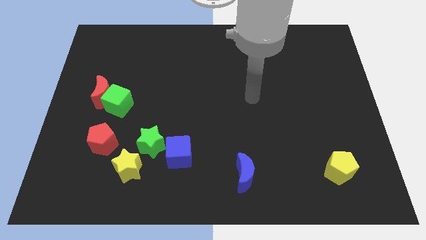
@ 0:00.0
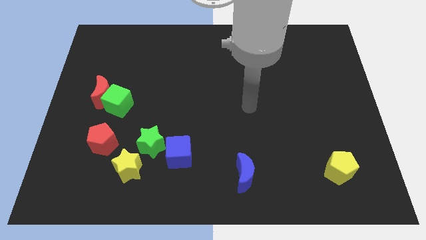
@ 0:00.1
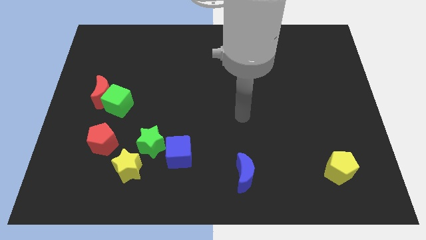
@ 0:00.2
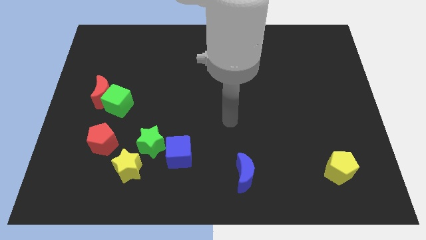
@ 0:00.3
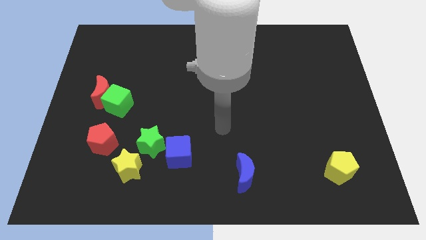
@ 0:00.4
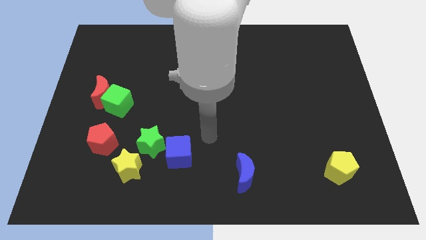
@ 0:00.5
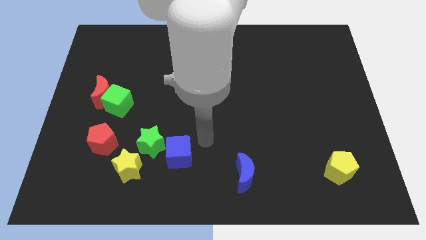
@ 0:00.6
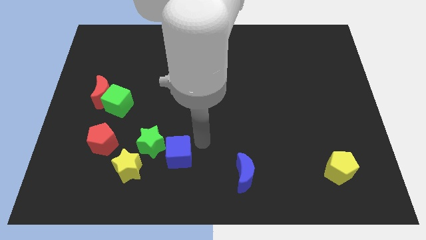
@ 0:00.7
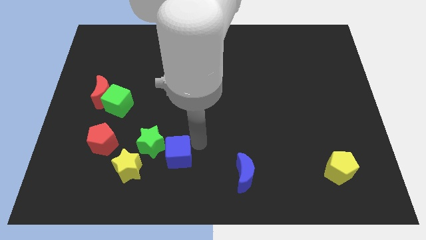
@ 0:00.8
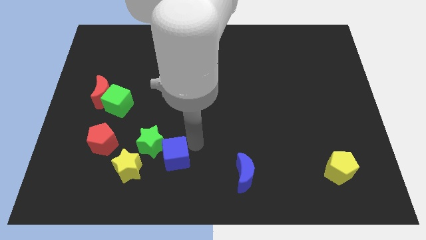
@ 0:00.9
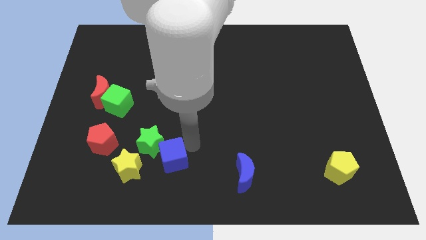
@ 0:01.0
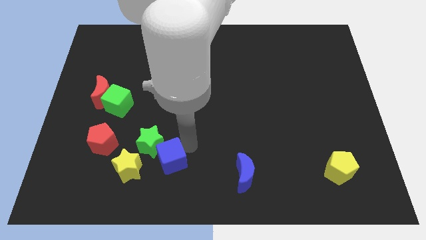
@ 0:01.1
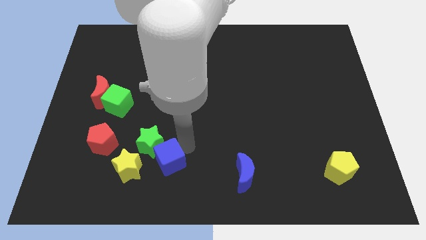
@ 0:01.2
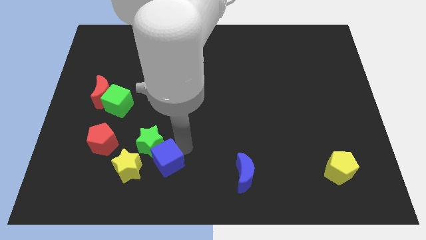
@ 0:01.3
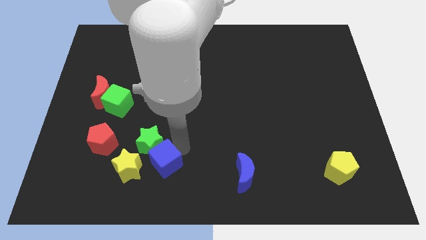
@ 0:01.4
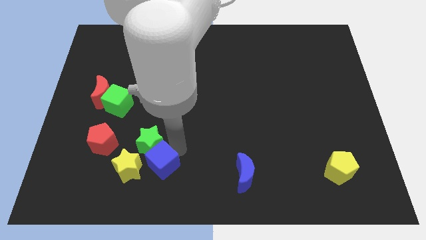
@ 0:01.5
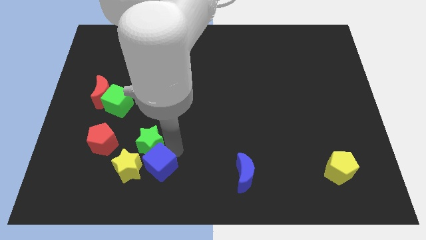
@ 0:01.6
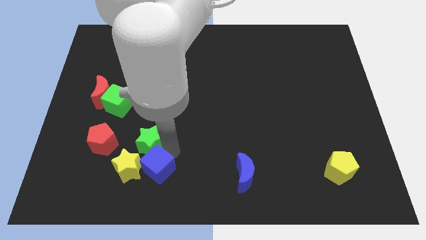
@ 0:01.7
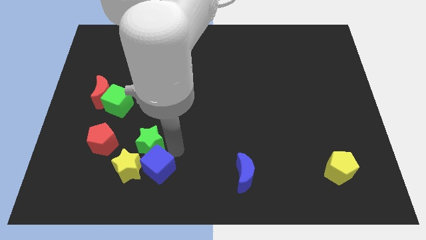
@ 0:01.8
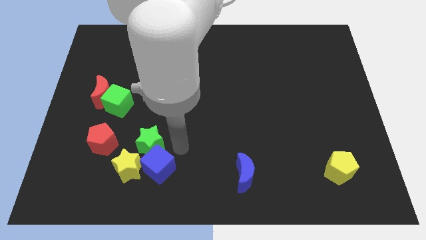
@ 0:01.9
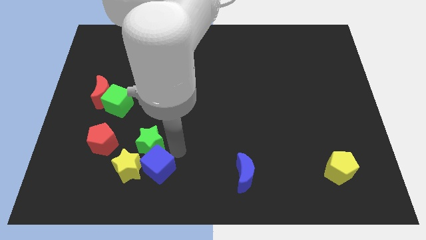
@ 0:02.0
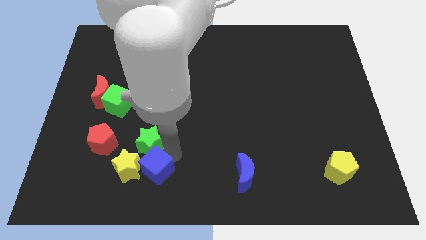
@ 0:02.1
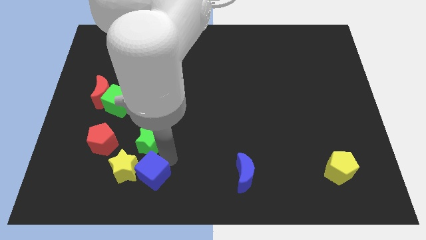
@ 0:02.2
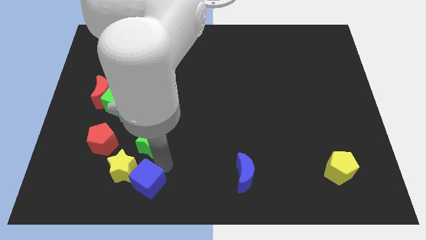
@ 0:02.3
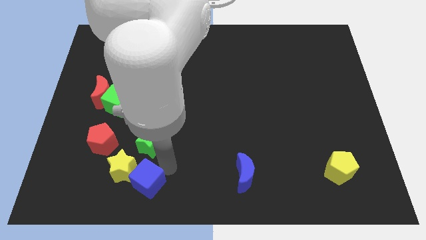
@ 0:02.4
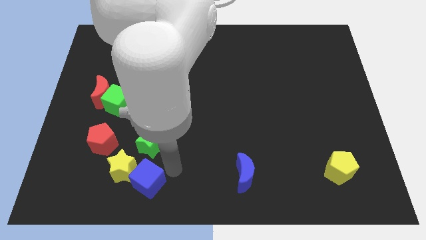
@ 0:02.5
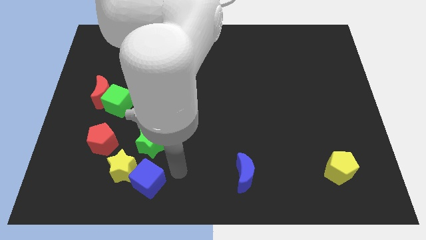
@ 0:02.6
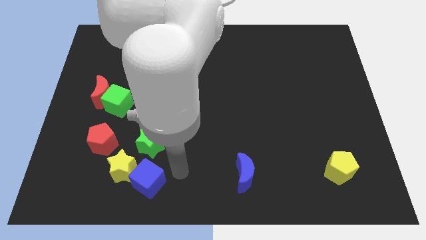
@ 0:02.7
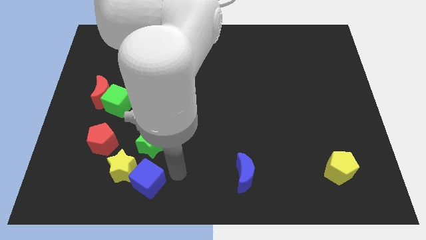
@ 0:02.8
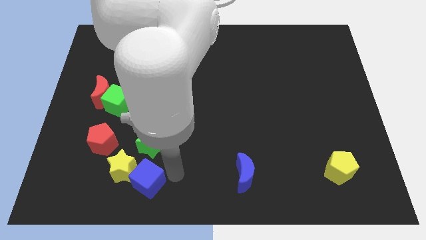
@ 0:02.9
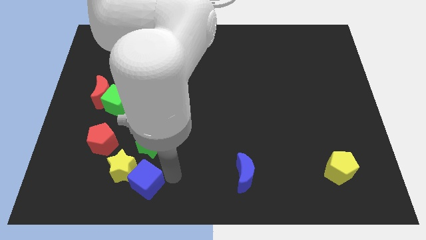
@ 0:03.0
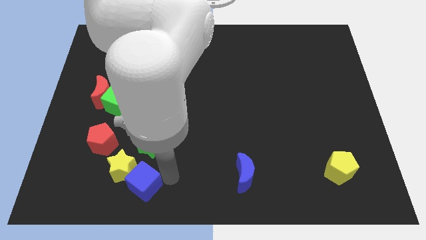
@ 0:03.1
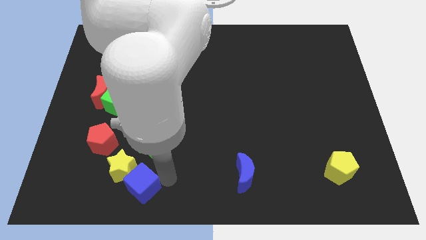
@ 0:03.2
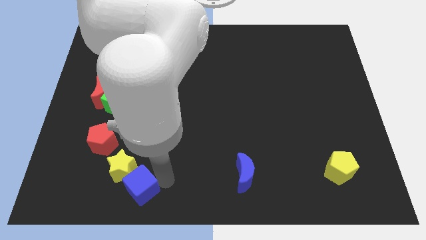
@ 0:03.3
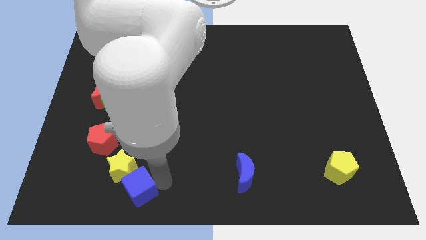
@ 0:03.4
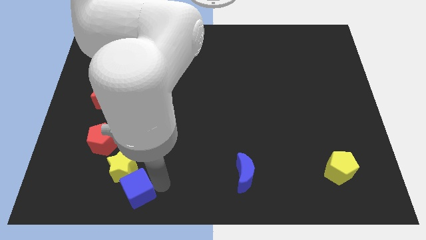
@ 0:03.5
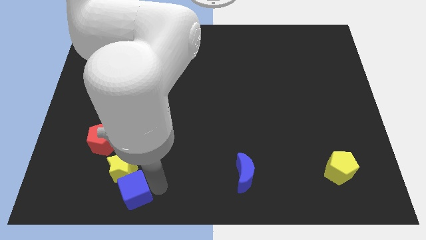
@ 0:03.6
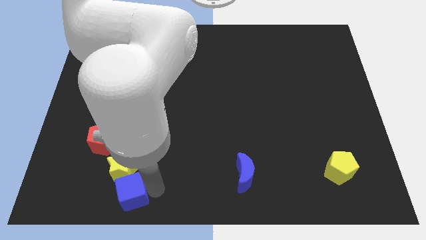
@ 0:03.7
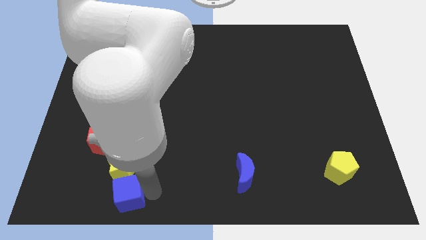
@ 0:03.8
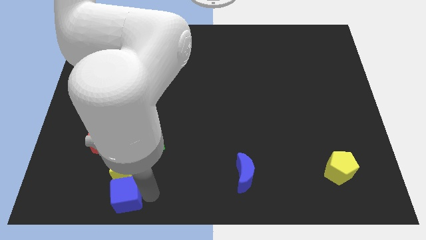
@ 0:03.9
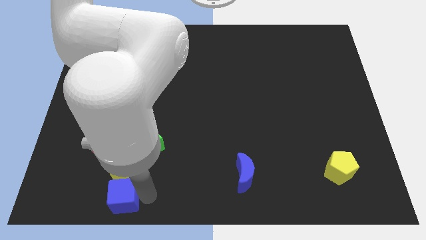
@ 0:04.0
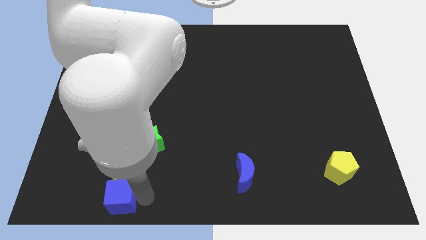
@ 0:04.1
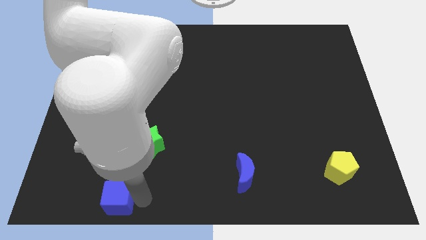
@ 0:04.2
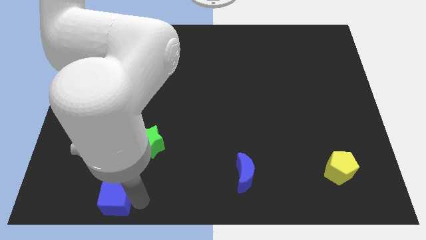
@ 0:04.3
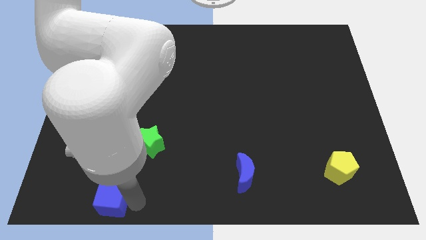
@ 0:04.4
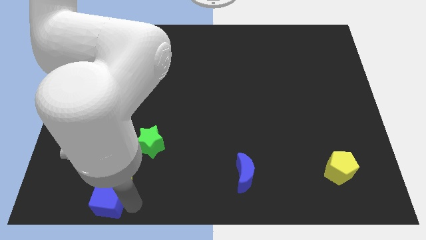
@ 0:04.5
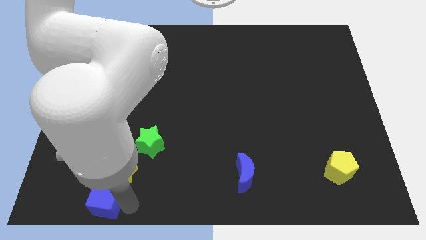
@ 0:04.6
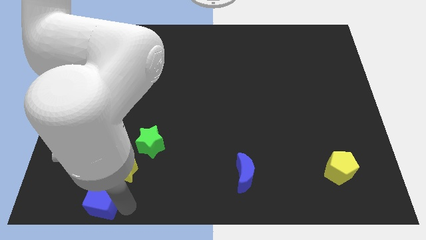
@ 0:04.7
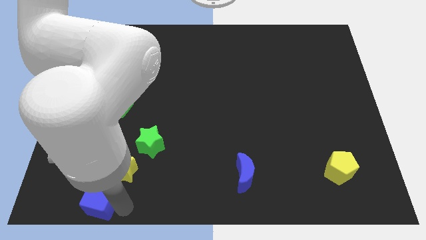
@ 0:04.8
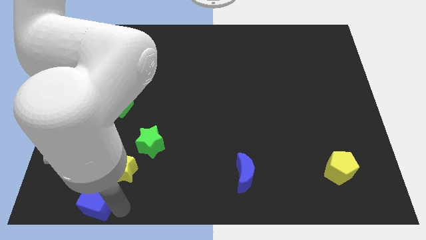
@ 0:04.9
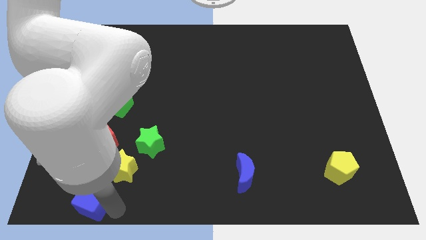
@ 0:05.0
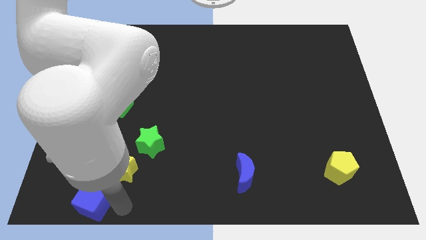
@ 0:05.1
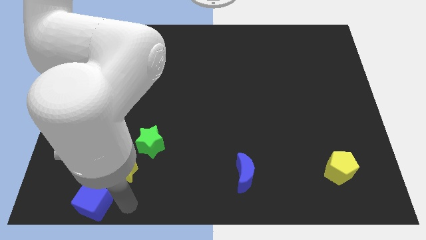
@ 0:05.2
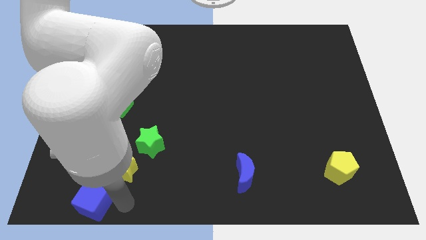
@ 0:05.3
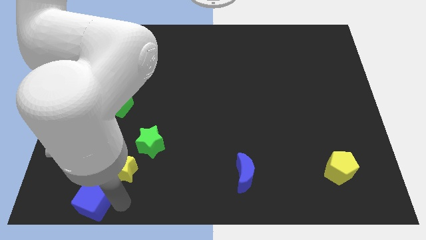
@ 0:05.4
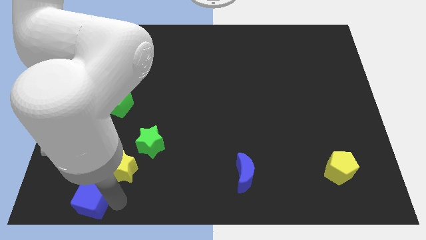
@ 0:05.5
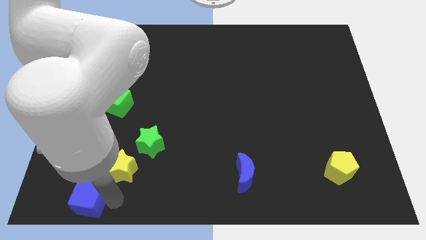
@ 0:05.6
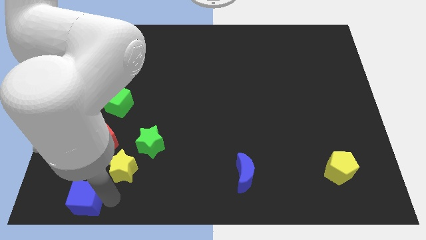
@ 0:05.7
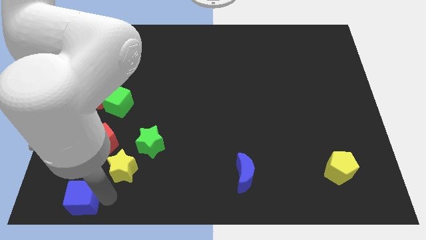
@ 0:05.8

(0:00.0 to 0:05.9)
slide the blue cube to the lower left corner

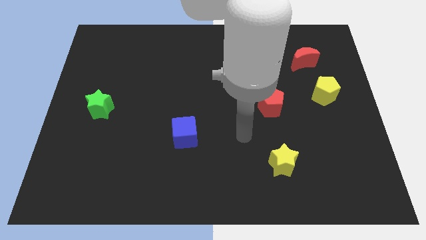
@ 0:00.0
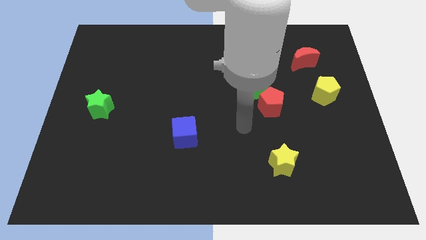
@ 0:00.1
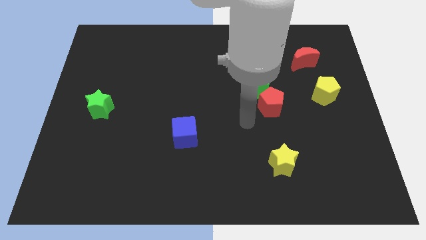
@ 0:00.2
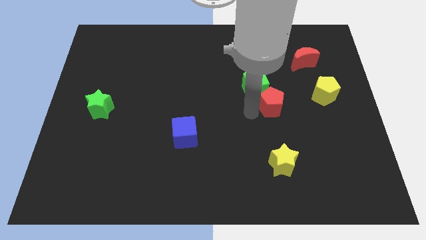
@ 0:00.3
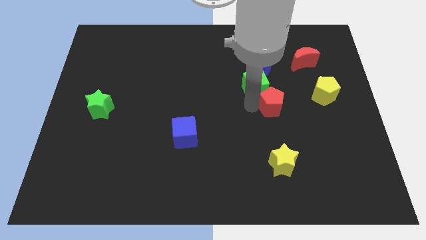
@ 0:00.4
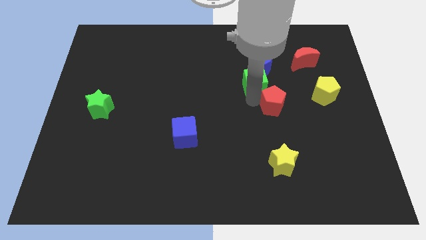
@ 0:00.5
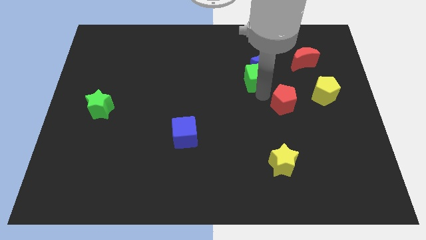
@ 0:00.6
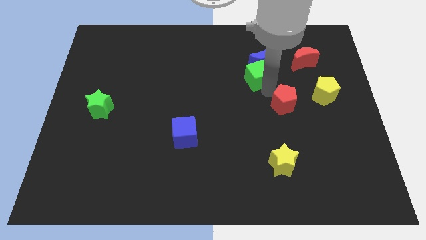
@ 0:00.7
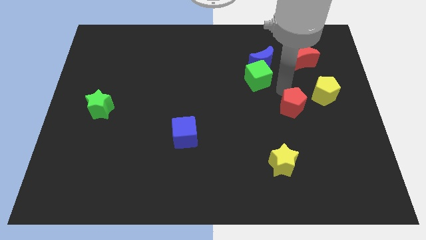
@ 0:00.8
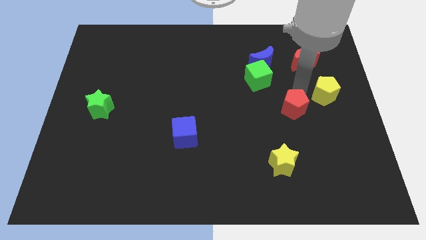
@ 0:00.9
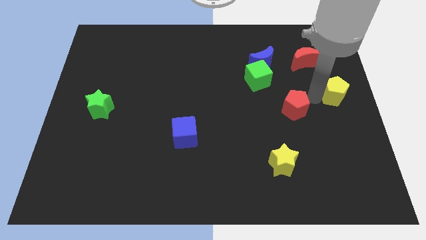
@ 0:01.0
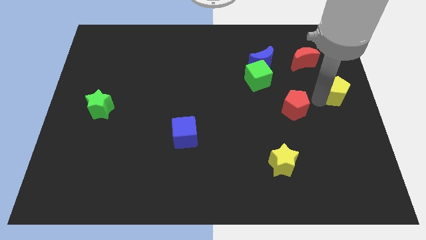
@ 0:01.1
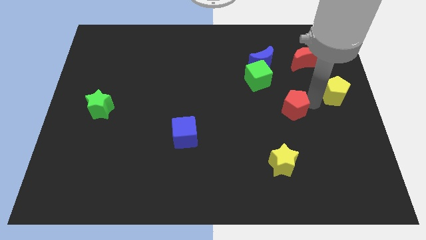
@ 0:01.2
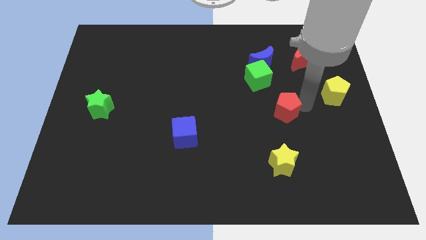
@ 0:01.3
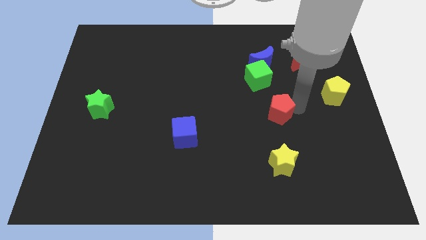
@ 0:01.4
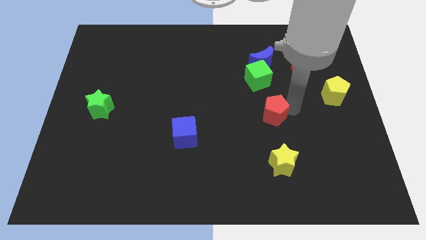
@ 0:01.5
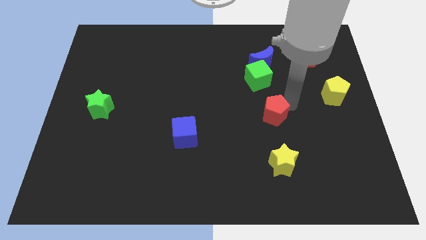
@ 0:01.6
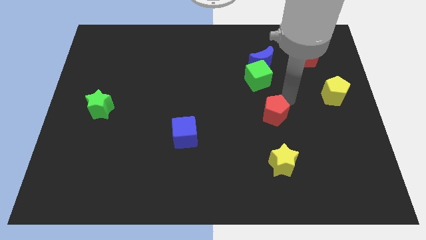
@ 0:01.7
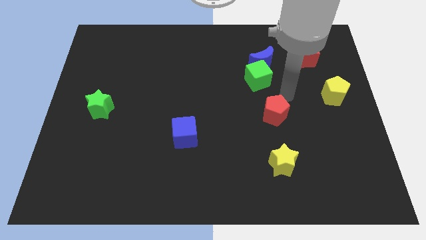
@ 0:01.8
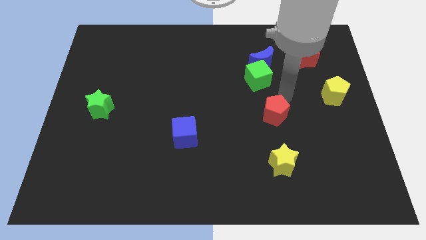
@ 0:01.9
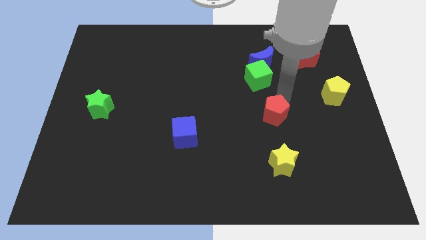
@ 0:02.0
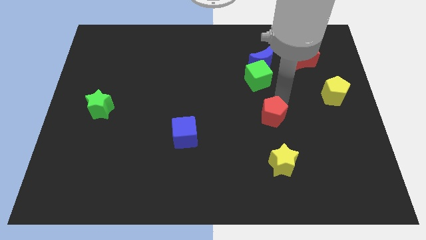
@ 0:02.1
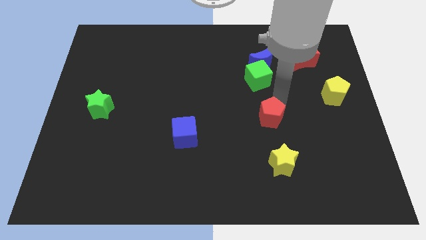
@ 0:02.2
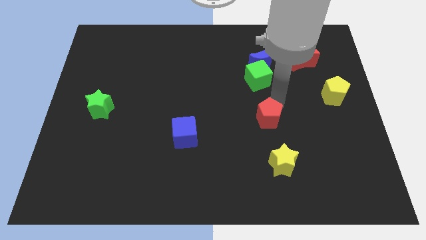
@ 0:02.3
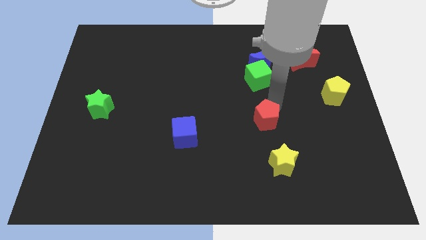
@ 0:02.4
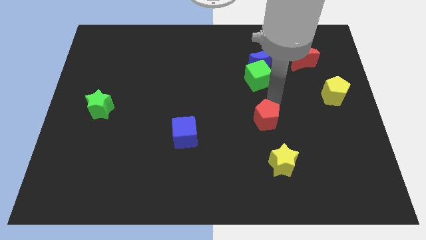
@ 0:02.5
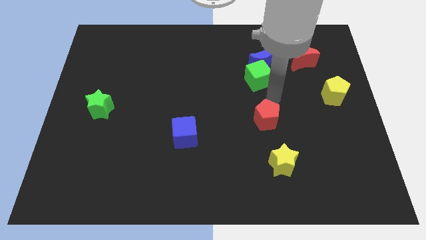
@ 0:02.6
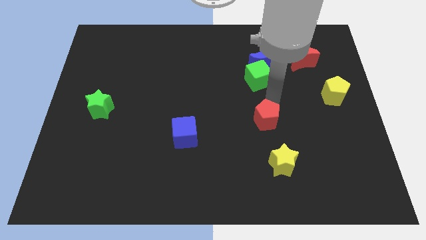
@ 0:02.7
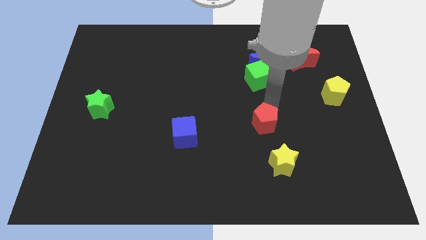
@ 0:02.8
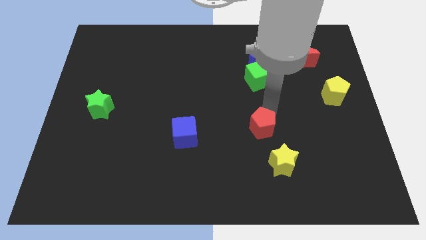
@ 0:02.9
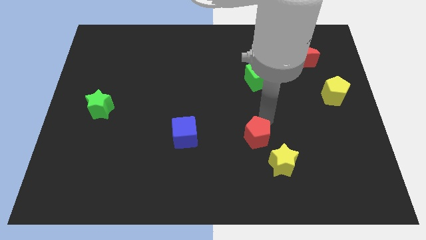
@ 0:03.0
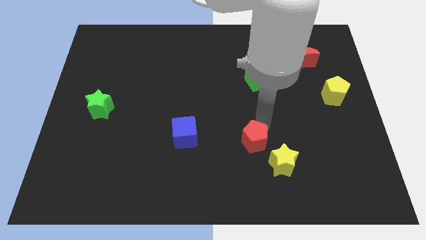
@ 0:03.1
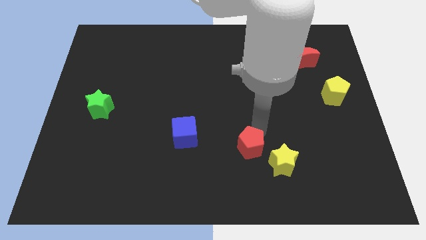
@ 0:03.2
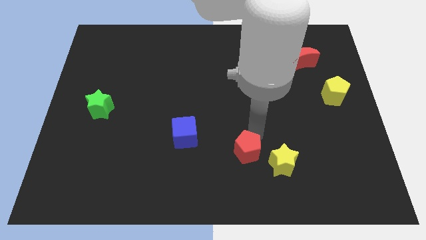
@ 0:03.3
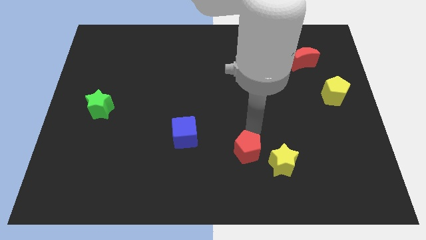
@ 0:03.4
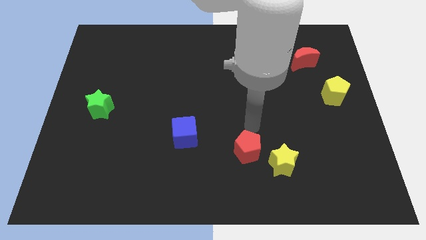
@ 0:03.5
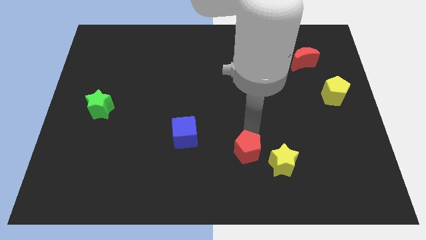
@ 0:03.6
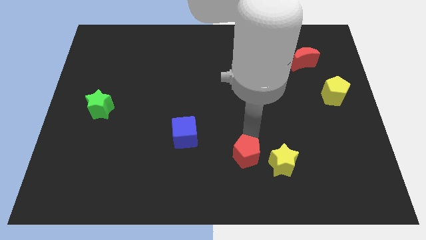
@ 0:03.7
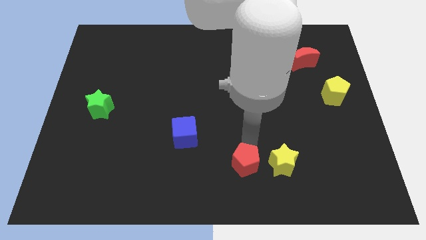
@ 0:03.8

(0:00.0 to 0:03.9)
slide the red pentagon to the bottom side
